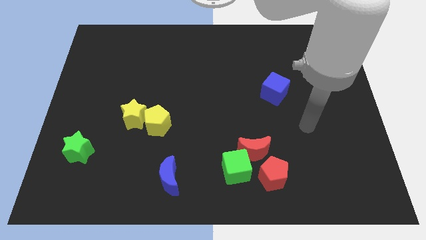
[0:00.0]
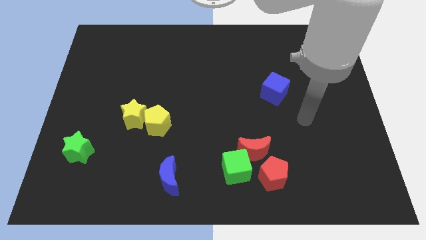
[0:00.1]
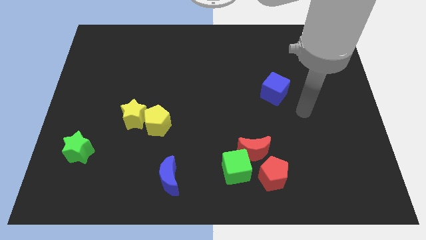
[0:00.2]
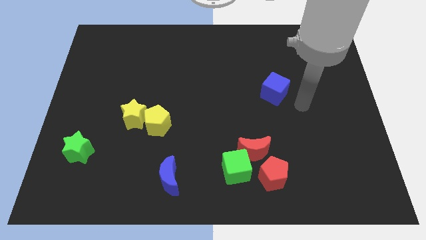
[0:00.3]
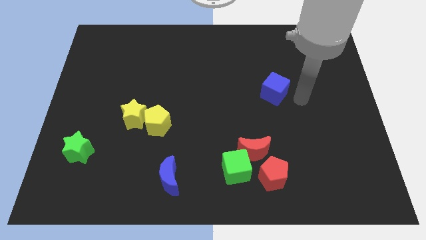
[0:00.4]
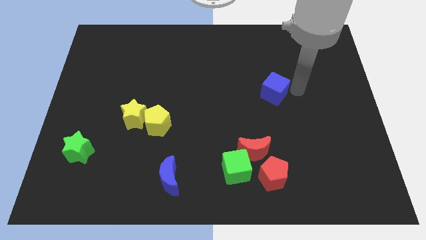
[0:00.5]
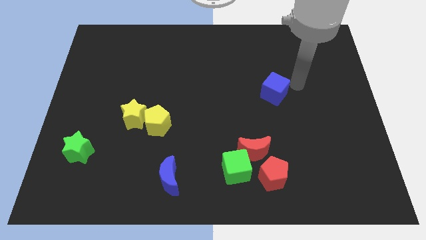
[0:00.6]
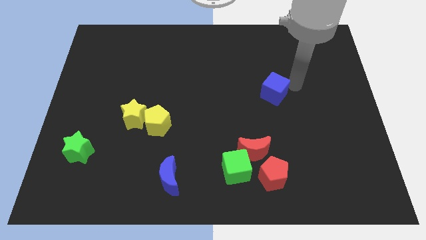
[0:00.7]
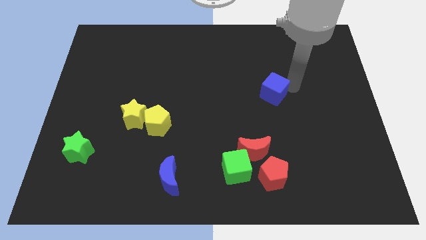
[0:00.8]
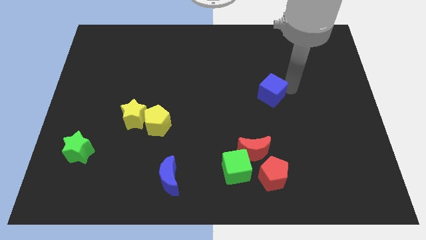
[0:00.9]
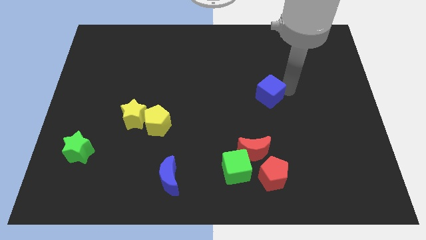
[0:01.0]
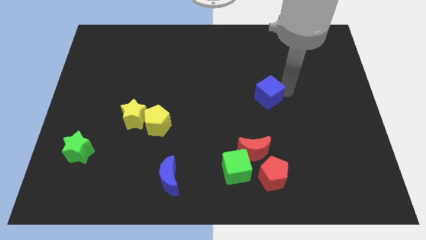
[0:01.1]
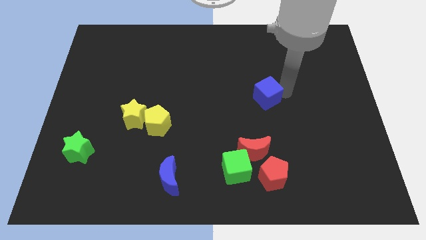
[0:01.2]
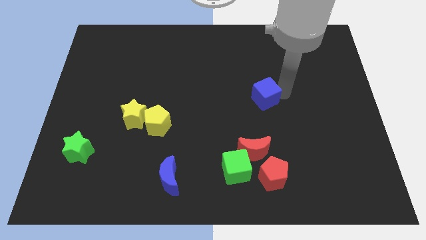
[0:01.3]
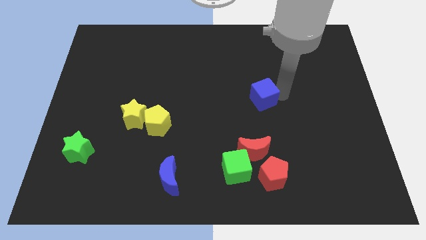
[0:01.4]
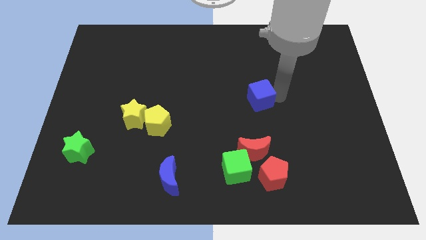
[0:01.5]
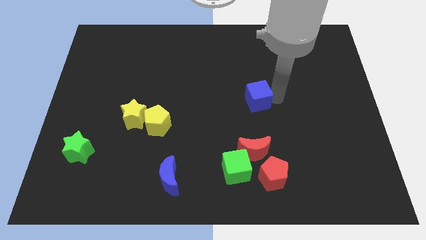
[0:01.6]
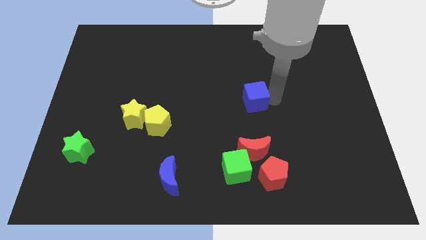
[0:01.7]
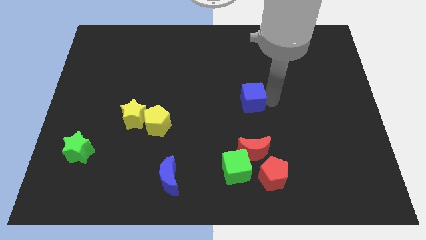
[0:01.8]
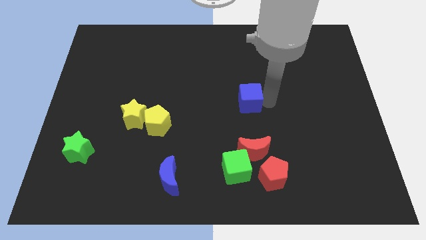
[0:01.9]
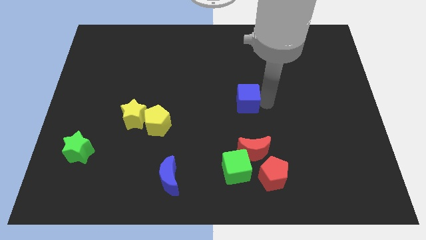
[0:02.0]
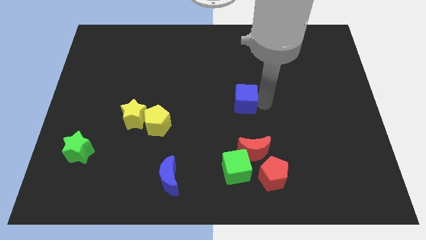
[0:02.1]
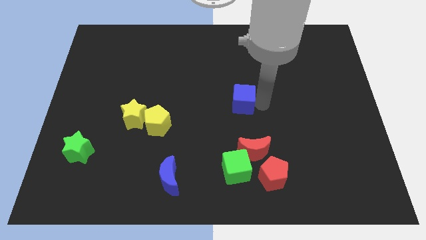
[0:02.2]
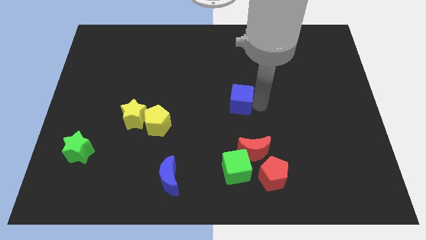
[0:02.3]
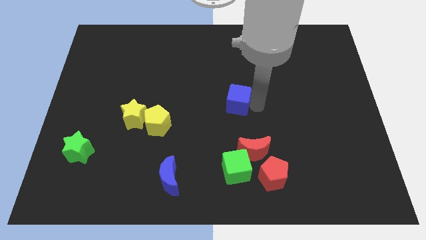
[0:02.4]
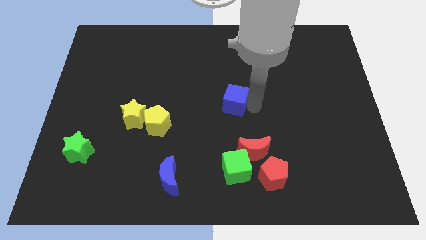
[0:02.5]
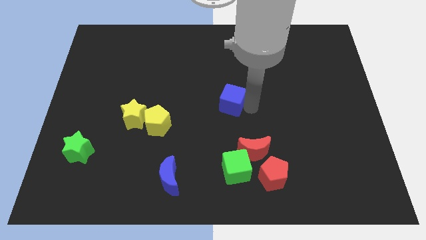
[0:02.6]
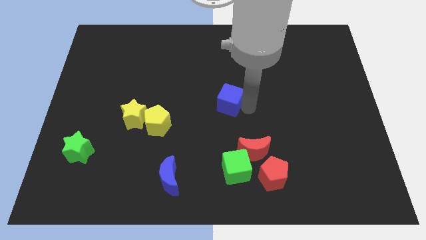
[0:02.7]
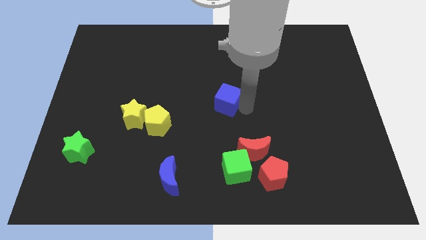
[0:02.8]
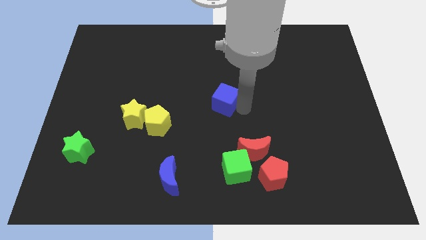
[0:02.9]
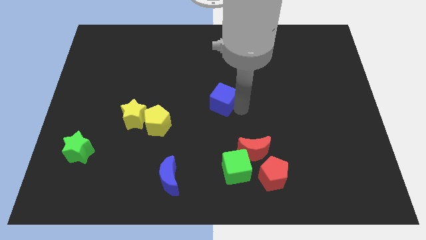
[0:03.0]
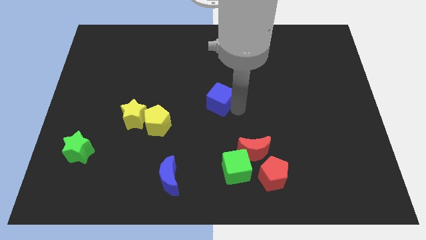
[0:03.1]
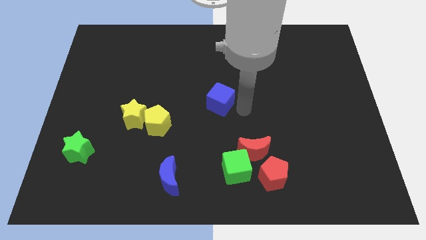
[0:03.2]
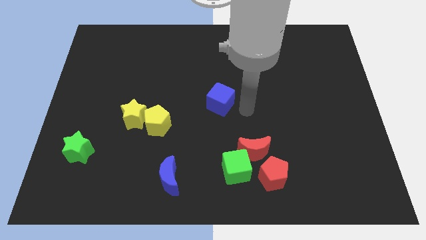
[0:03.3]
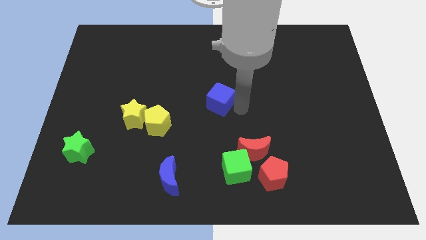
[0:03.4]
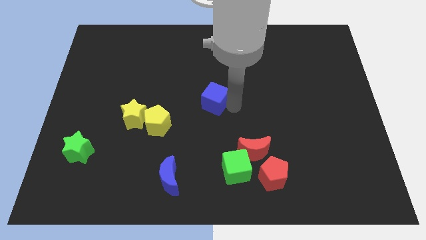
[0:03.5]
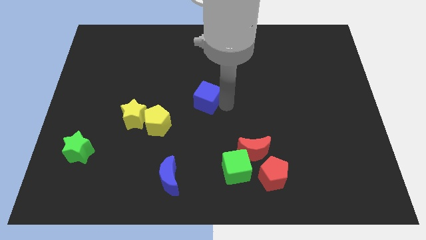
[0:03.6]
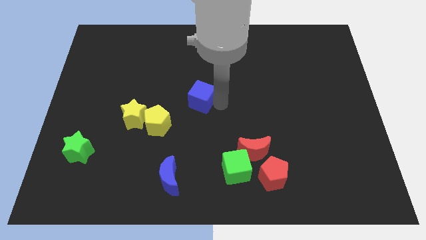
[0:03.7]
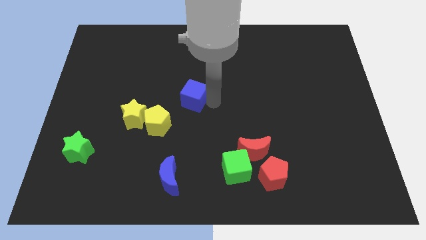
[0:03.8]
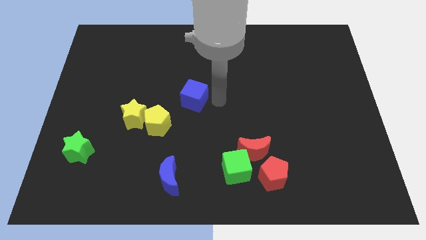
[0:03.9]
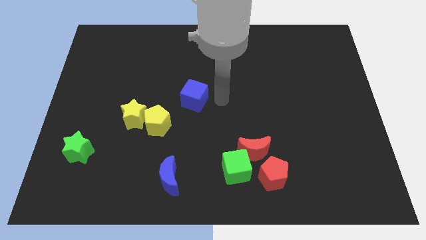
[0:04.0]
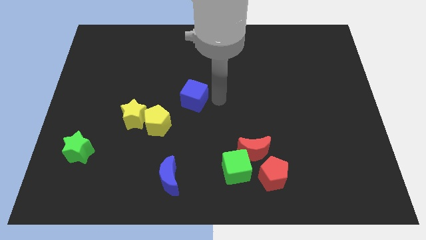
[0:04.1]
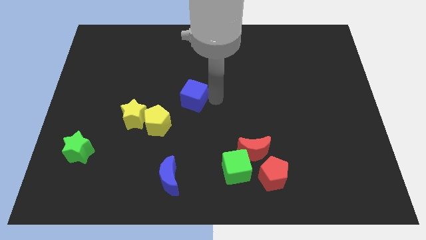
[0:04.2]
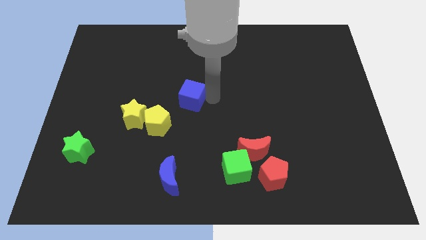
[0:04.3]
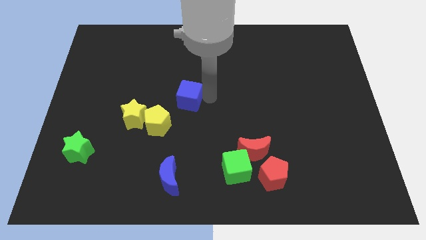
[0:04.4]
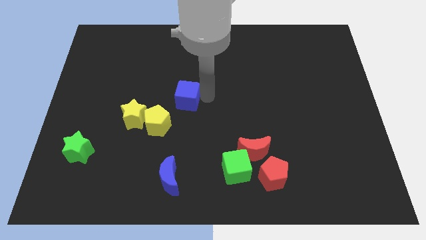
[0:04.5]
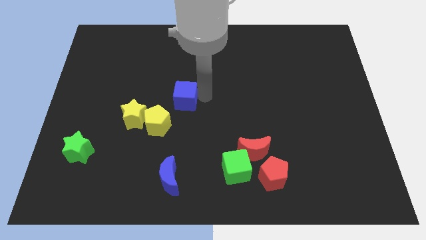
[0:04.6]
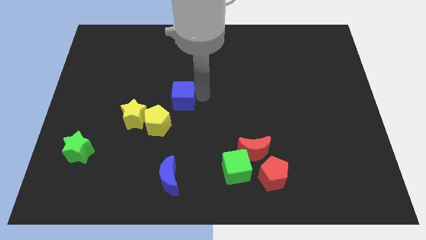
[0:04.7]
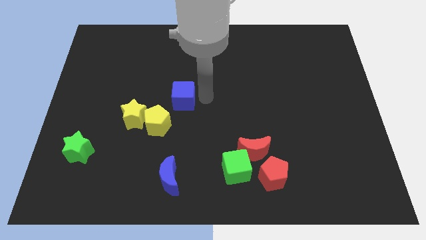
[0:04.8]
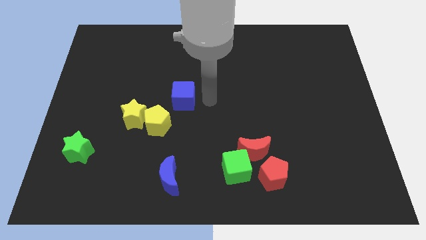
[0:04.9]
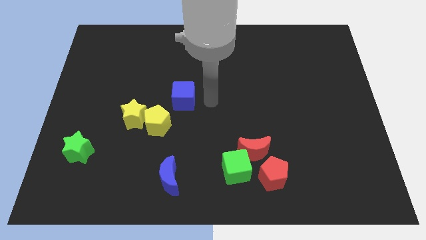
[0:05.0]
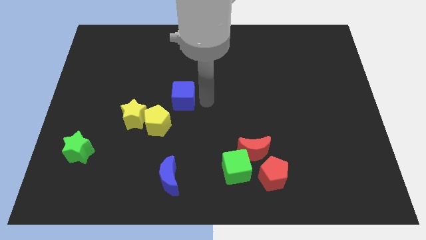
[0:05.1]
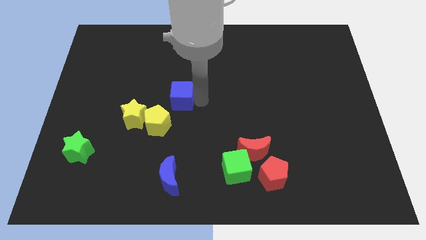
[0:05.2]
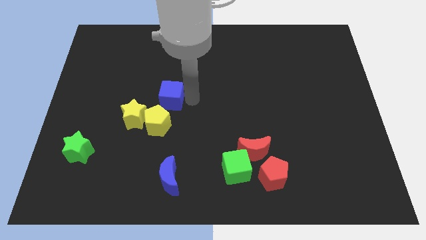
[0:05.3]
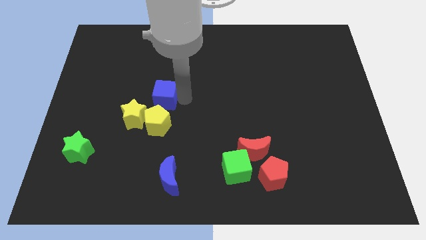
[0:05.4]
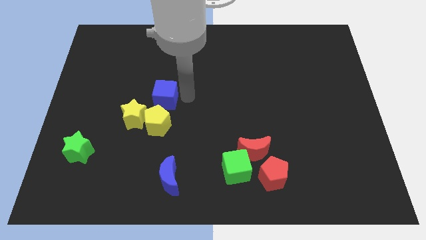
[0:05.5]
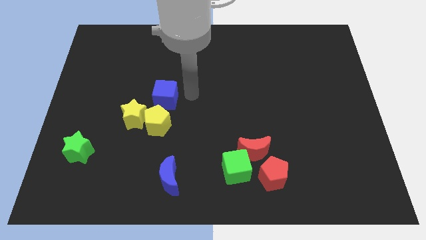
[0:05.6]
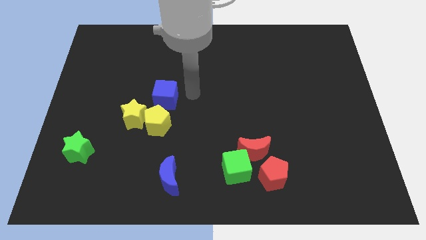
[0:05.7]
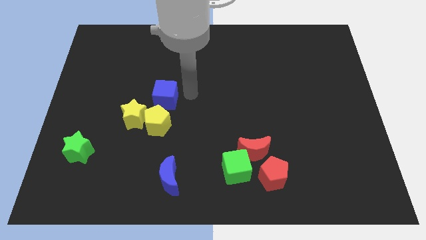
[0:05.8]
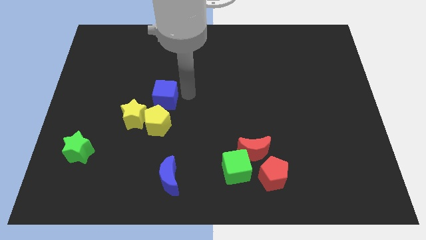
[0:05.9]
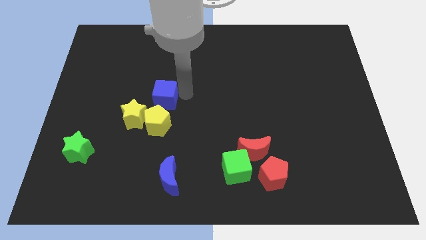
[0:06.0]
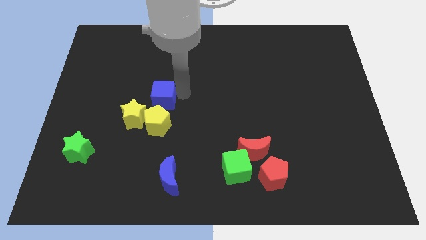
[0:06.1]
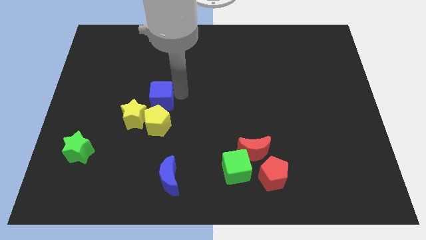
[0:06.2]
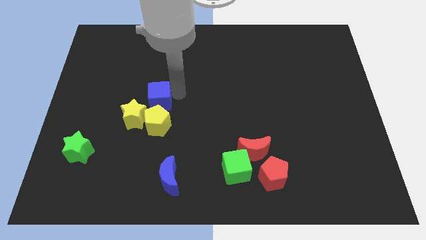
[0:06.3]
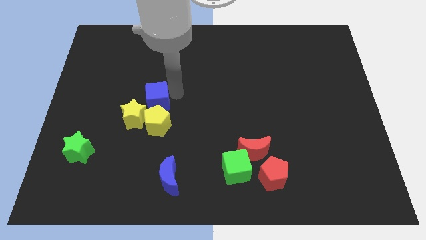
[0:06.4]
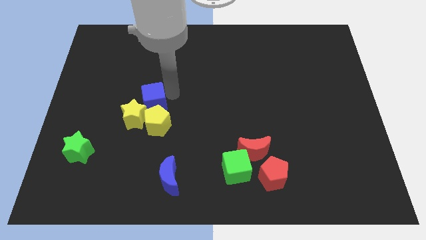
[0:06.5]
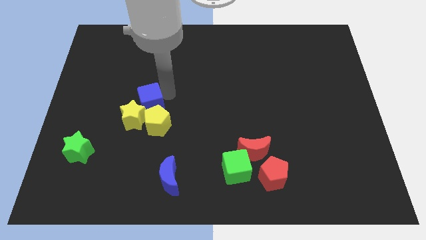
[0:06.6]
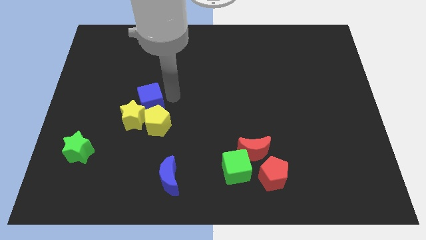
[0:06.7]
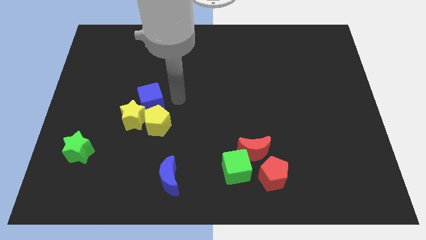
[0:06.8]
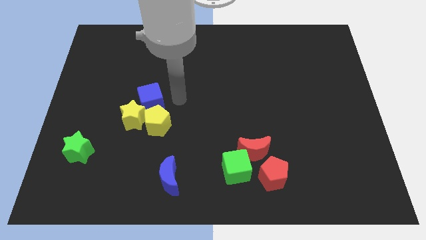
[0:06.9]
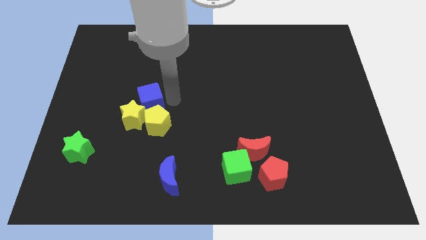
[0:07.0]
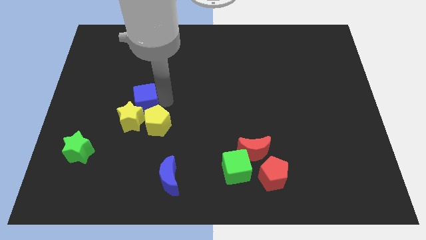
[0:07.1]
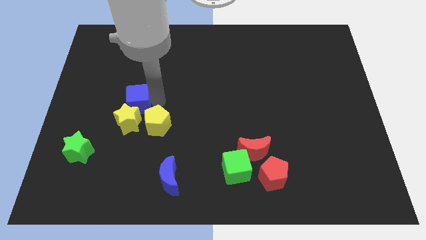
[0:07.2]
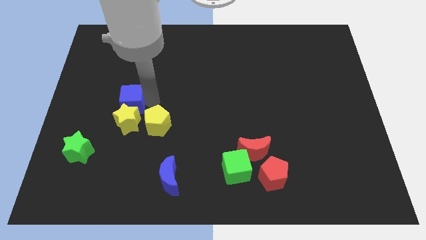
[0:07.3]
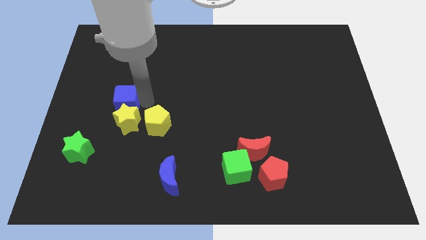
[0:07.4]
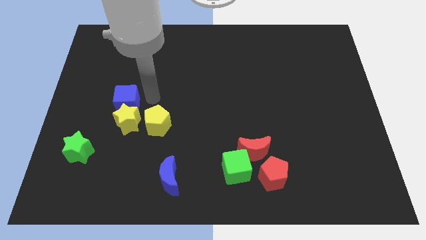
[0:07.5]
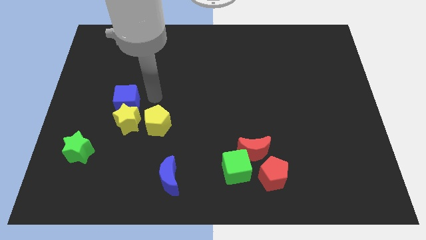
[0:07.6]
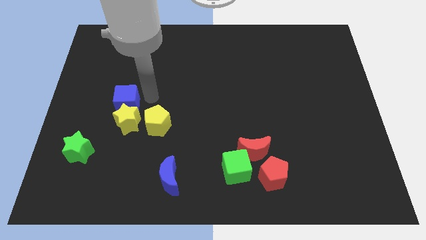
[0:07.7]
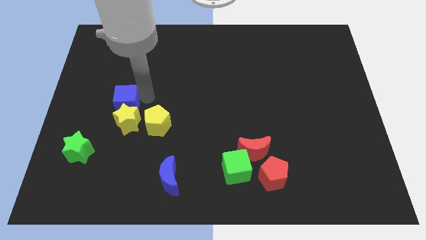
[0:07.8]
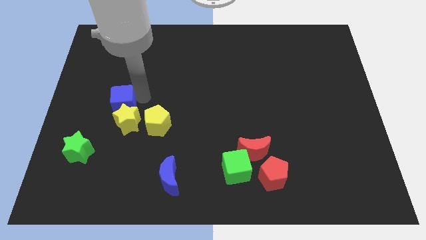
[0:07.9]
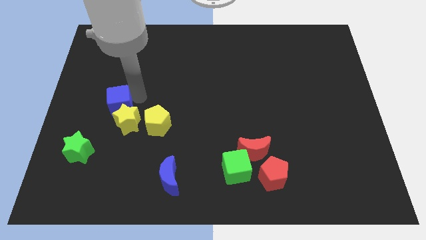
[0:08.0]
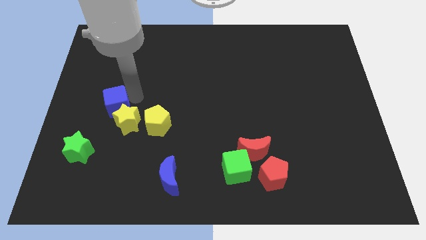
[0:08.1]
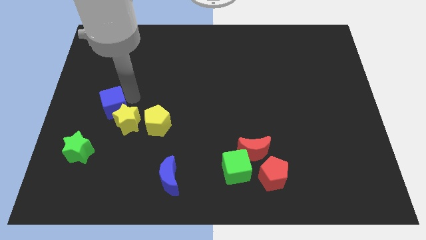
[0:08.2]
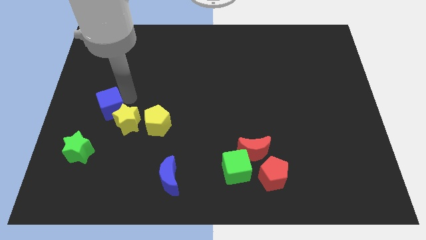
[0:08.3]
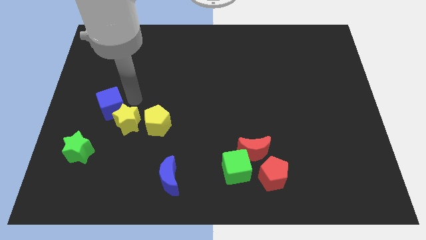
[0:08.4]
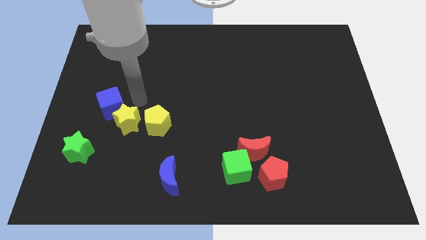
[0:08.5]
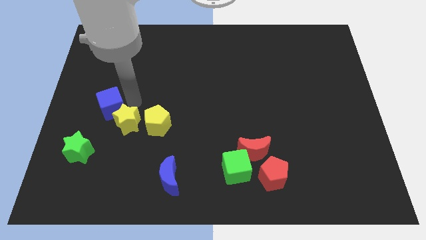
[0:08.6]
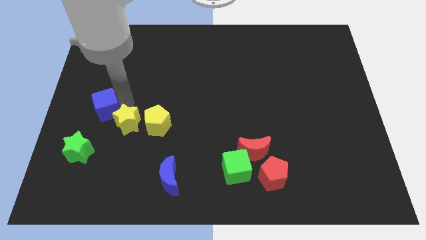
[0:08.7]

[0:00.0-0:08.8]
slide the blue cube to the top of the green star
